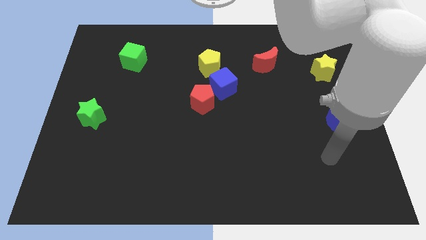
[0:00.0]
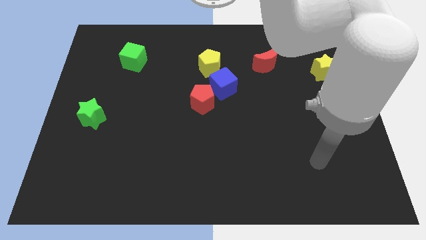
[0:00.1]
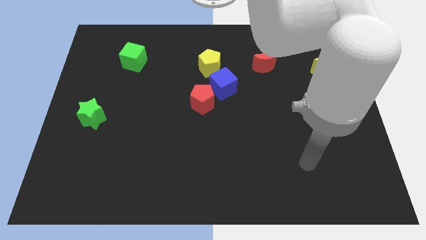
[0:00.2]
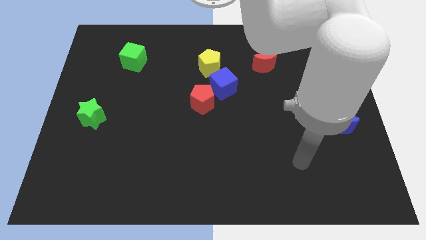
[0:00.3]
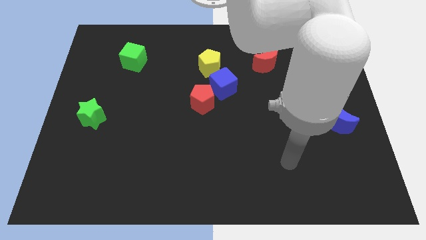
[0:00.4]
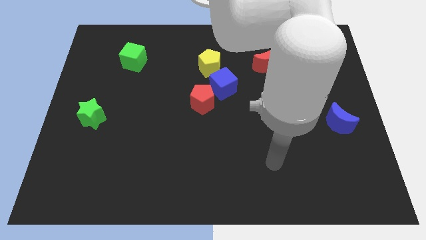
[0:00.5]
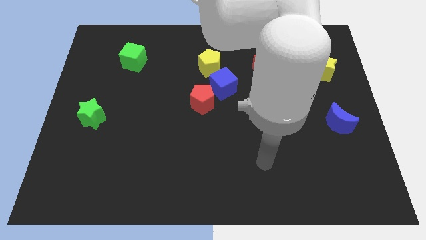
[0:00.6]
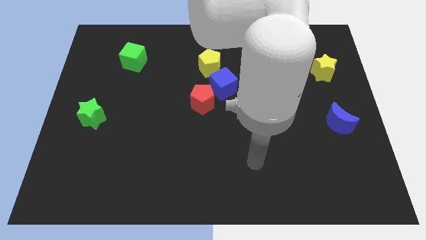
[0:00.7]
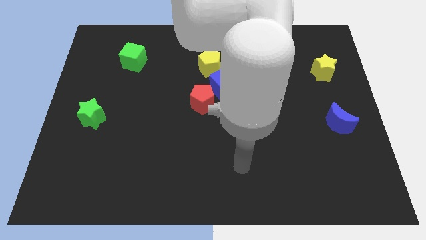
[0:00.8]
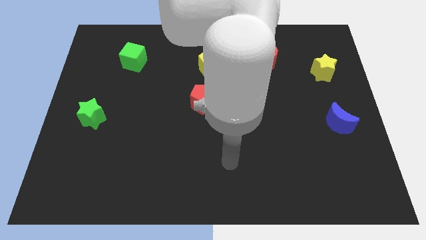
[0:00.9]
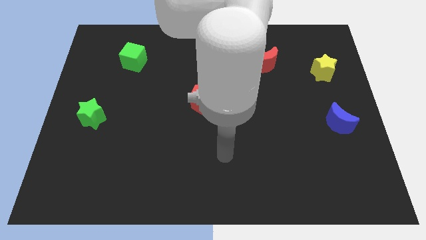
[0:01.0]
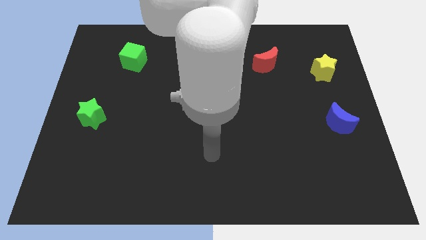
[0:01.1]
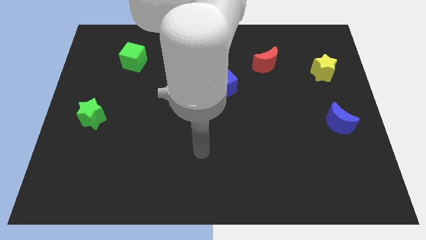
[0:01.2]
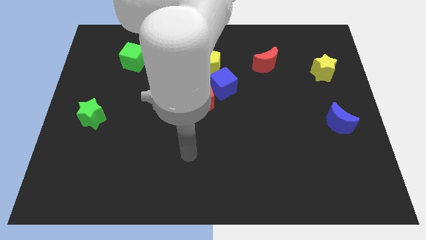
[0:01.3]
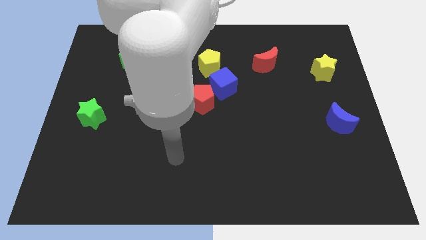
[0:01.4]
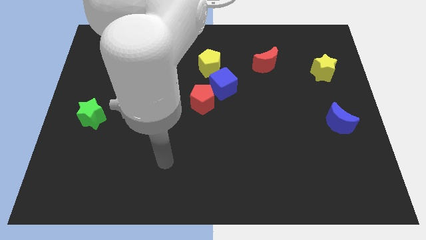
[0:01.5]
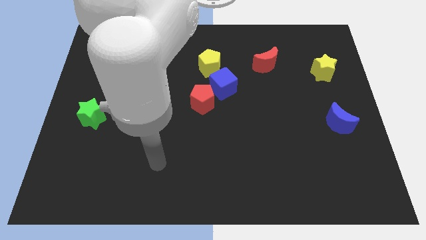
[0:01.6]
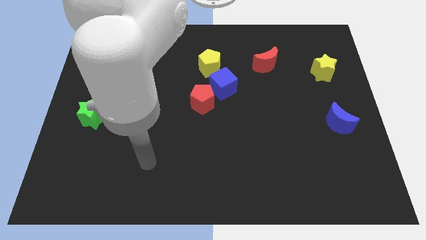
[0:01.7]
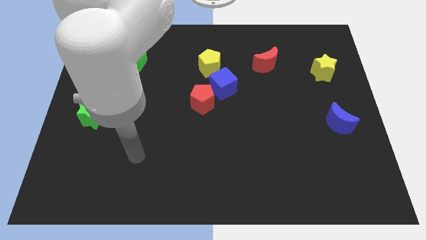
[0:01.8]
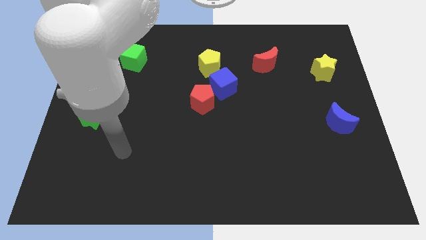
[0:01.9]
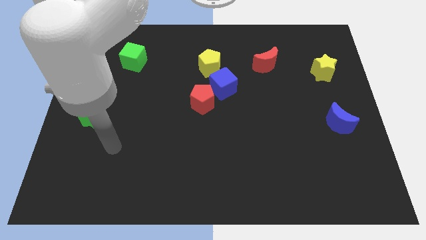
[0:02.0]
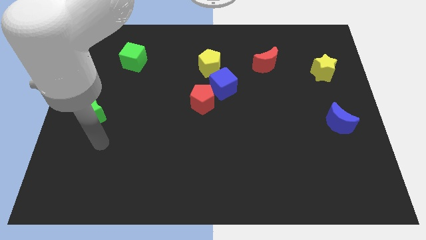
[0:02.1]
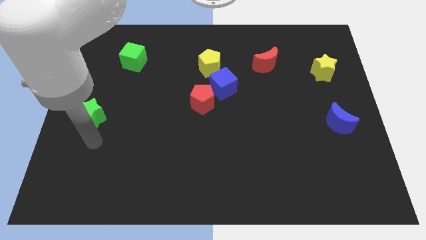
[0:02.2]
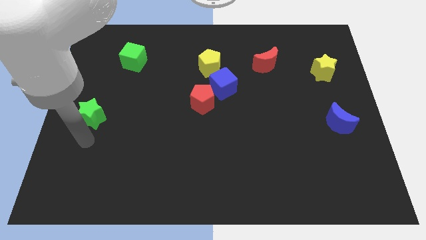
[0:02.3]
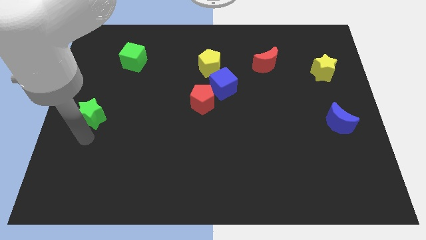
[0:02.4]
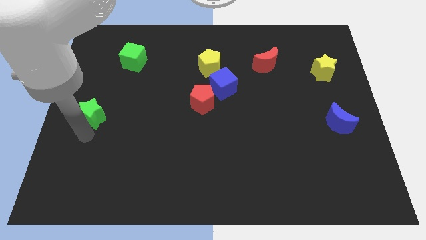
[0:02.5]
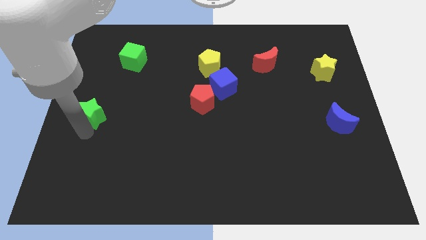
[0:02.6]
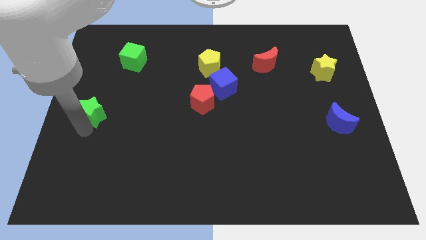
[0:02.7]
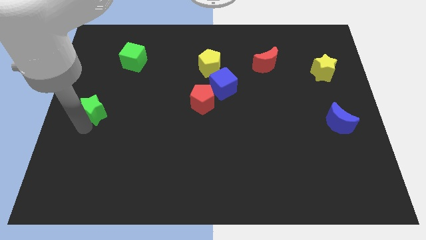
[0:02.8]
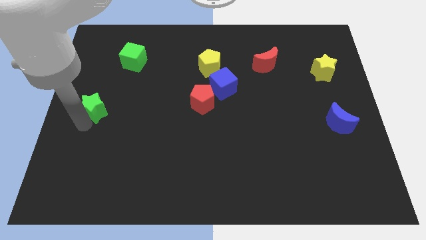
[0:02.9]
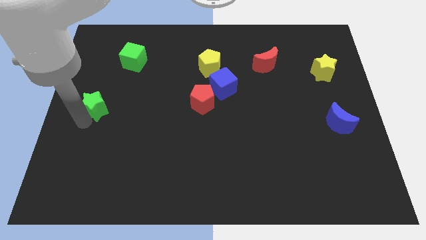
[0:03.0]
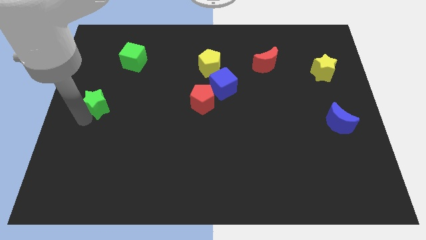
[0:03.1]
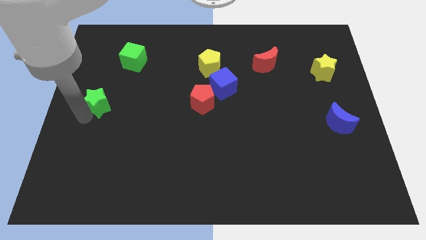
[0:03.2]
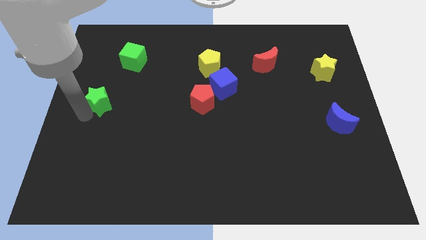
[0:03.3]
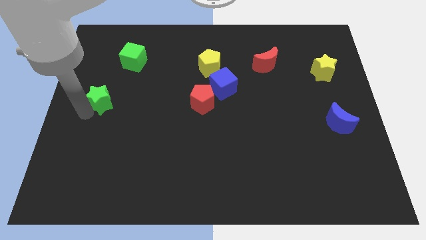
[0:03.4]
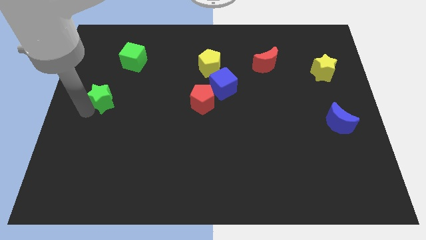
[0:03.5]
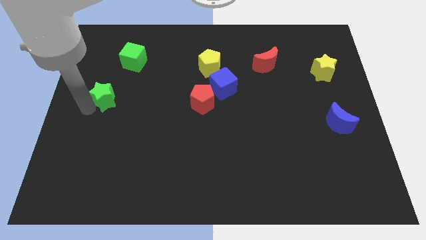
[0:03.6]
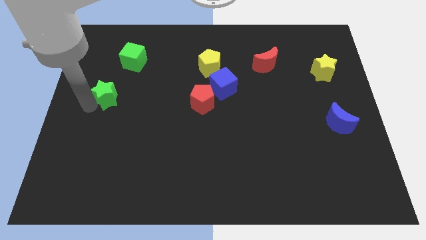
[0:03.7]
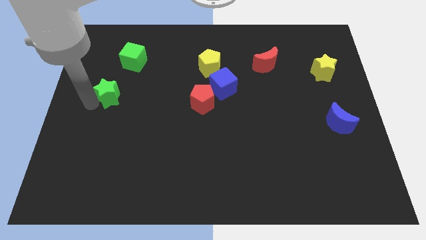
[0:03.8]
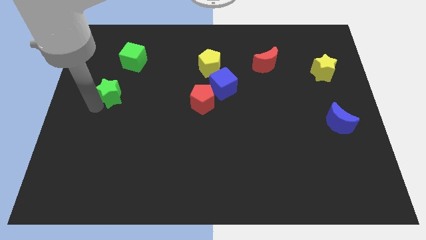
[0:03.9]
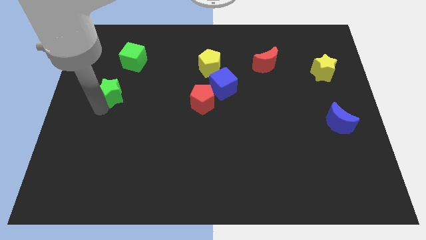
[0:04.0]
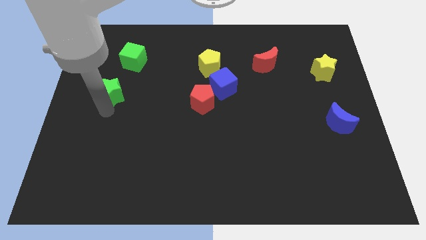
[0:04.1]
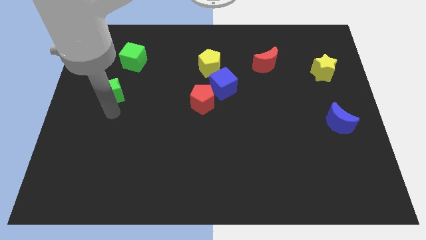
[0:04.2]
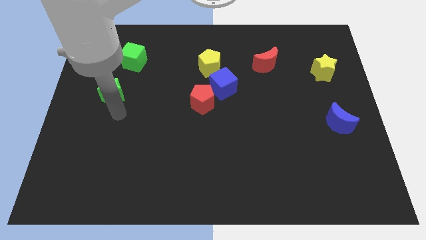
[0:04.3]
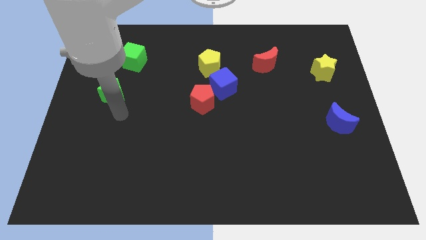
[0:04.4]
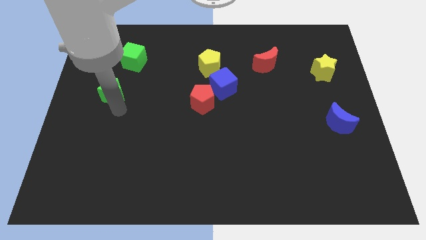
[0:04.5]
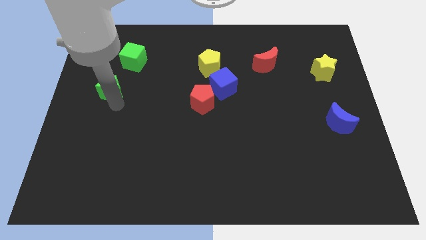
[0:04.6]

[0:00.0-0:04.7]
move the green star a little bit upwards

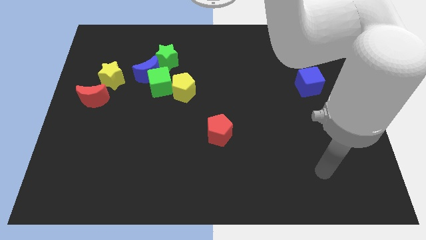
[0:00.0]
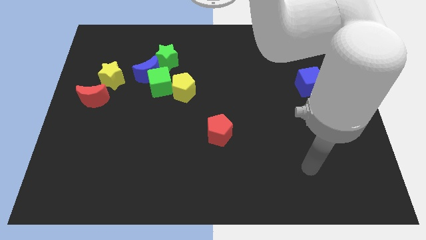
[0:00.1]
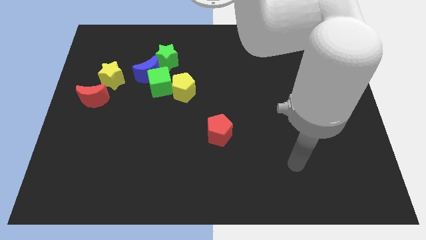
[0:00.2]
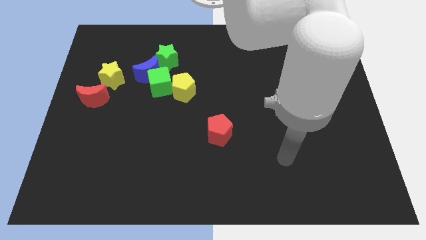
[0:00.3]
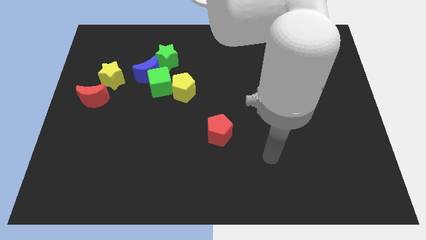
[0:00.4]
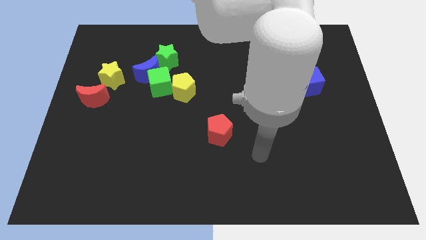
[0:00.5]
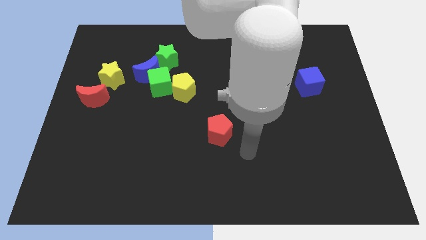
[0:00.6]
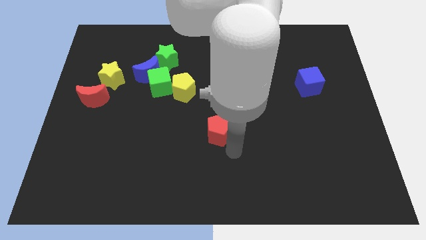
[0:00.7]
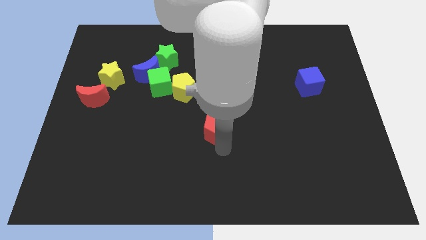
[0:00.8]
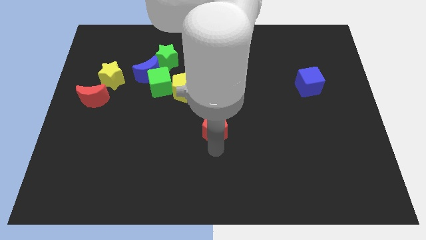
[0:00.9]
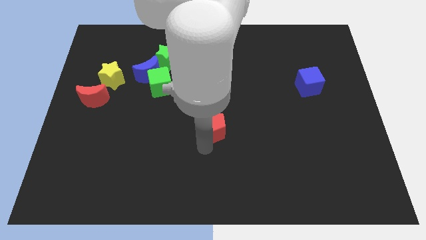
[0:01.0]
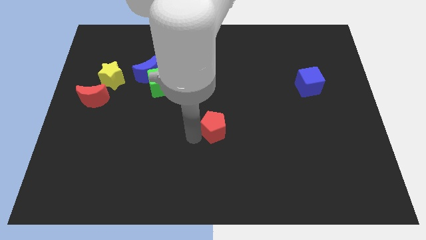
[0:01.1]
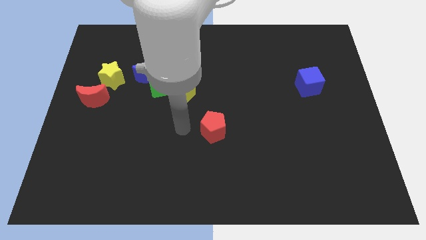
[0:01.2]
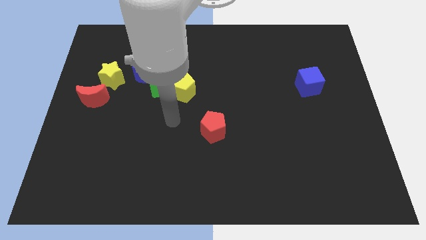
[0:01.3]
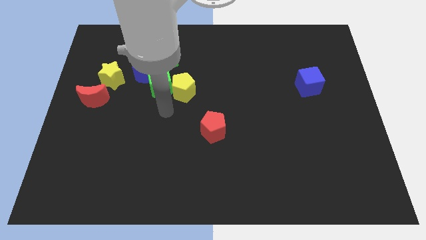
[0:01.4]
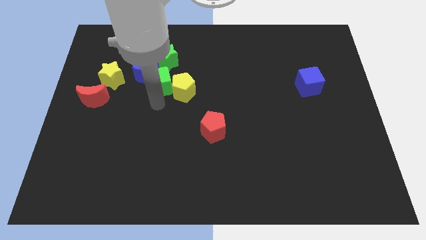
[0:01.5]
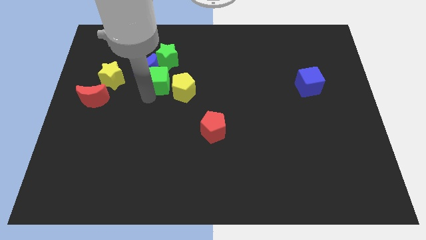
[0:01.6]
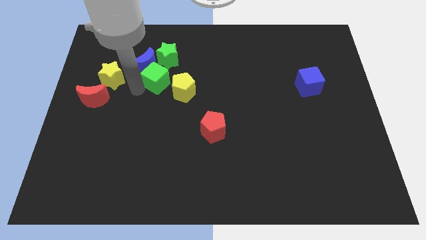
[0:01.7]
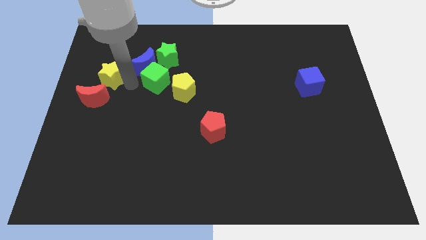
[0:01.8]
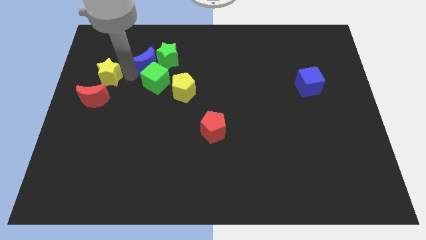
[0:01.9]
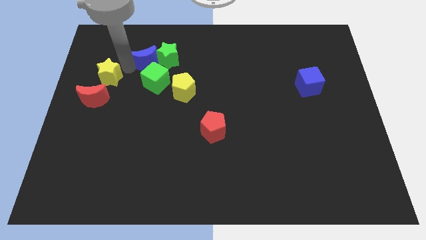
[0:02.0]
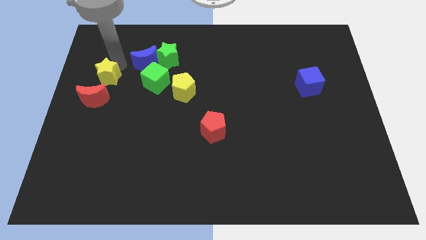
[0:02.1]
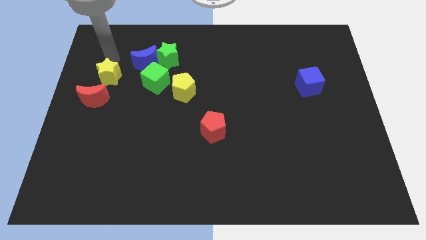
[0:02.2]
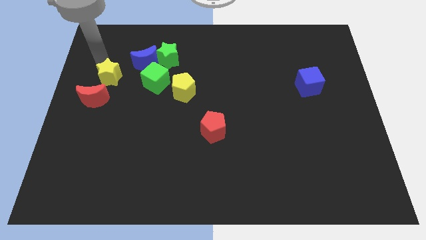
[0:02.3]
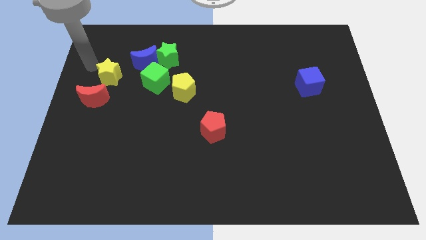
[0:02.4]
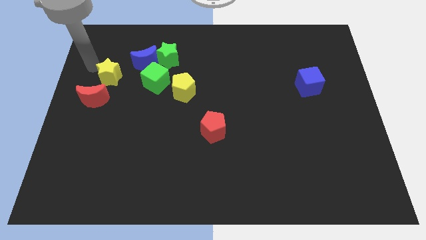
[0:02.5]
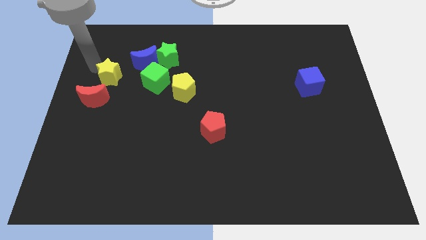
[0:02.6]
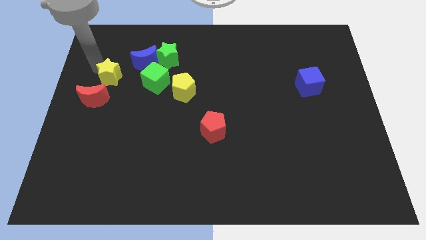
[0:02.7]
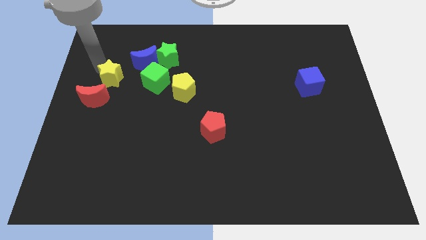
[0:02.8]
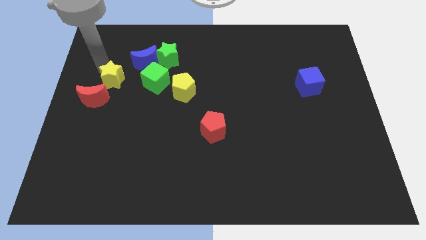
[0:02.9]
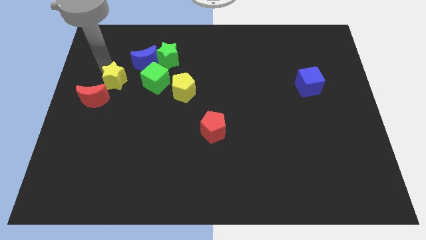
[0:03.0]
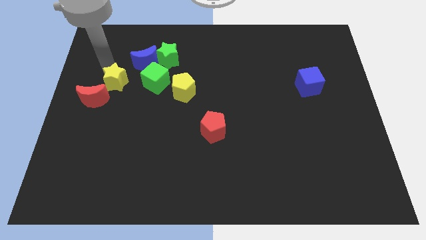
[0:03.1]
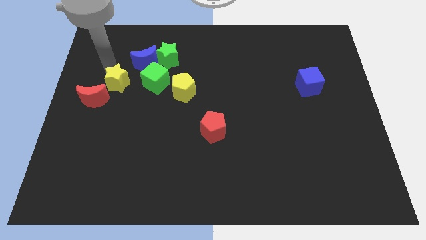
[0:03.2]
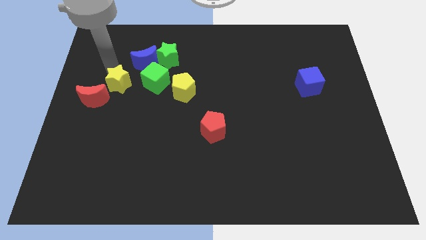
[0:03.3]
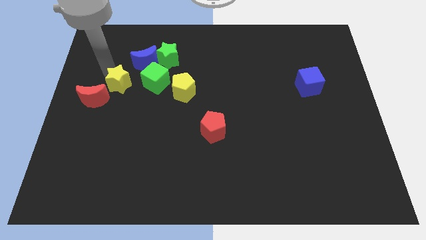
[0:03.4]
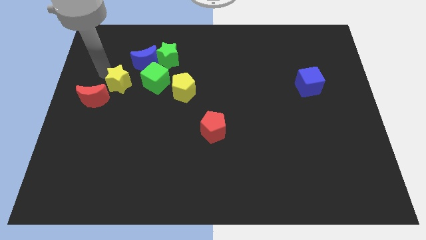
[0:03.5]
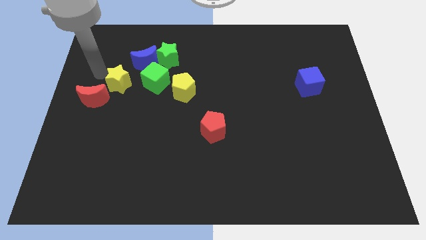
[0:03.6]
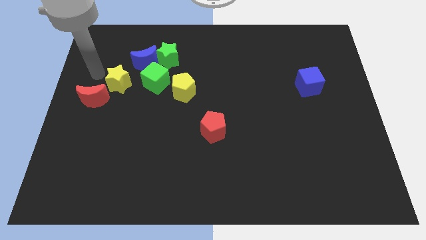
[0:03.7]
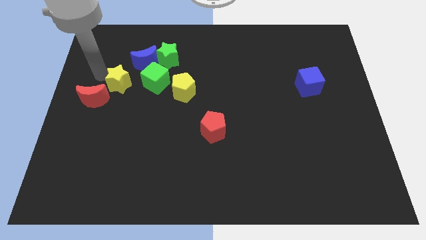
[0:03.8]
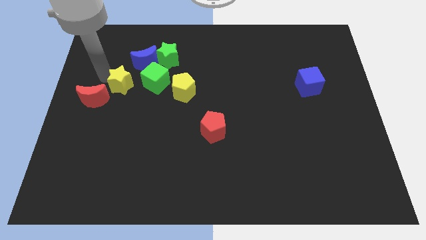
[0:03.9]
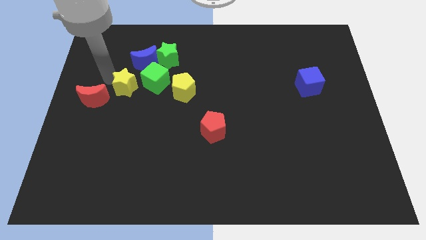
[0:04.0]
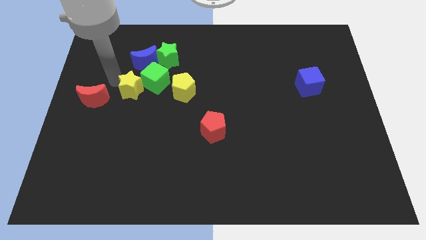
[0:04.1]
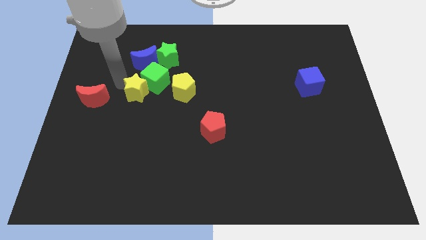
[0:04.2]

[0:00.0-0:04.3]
move the yellow star slightly downwards and to the right diagonally
